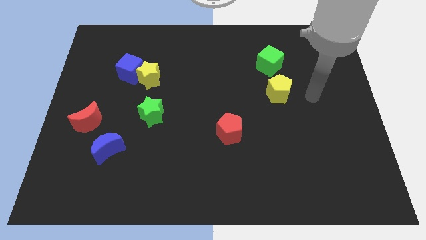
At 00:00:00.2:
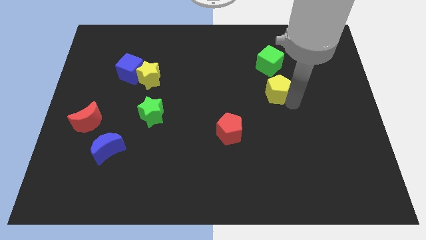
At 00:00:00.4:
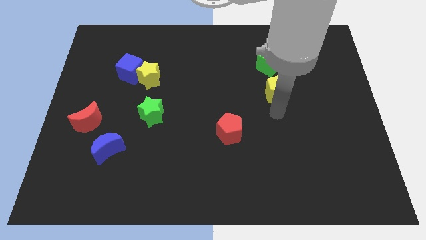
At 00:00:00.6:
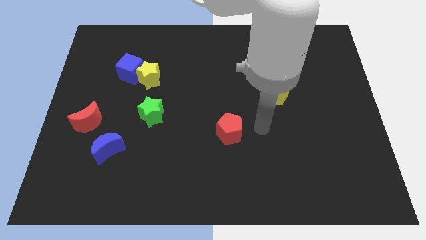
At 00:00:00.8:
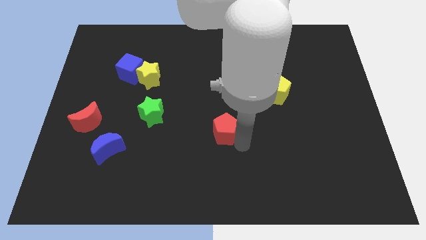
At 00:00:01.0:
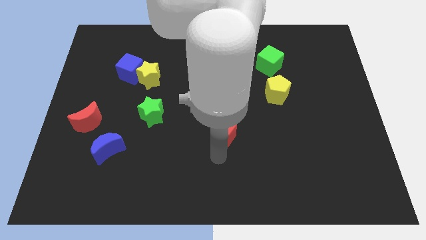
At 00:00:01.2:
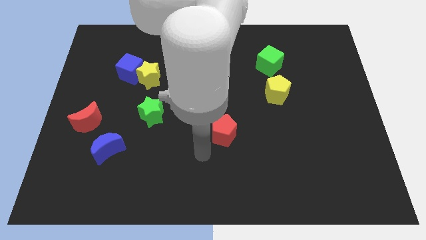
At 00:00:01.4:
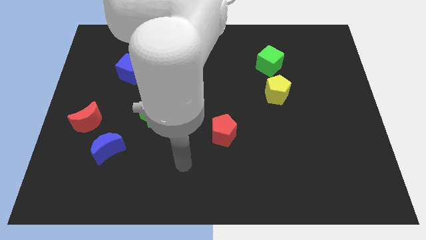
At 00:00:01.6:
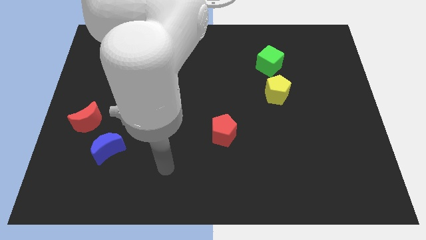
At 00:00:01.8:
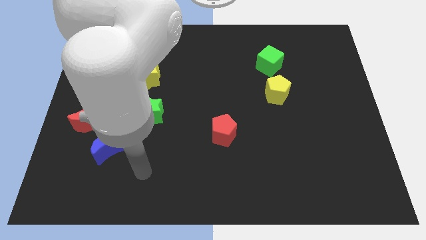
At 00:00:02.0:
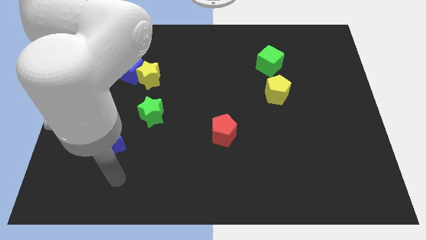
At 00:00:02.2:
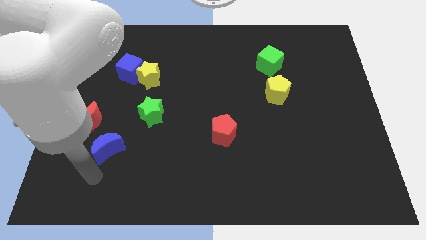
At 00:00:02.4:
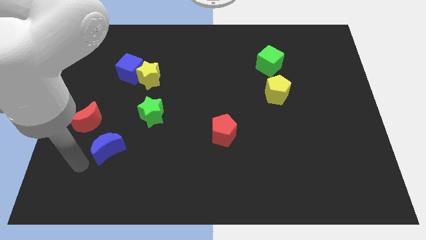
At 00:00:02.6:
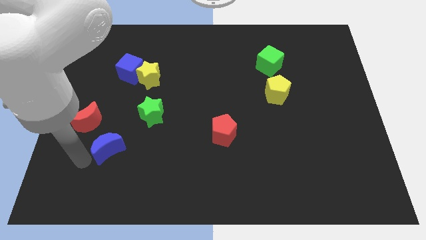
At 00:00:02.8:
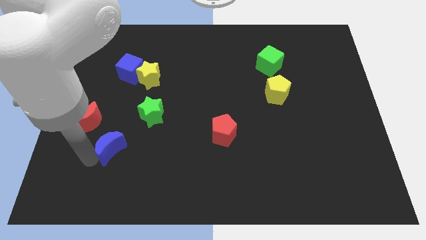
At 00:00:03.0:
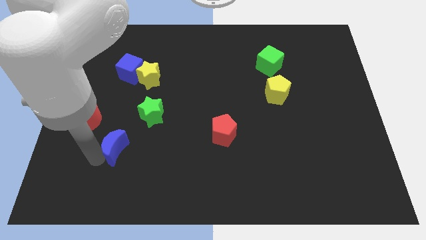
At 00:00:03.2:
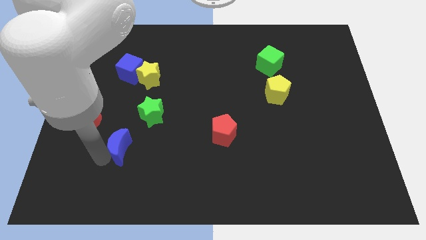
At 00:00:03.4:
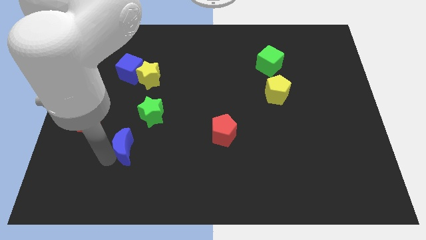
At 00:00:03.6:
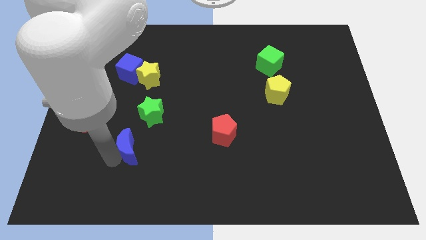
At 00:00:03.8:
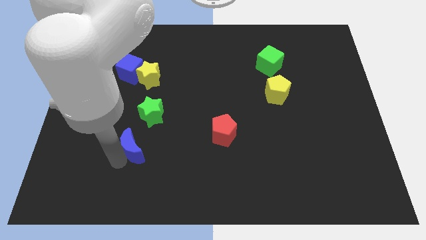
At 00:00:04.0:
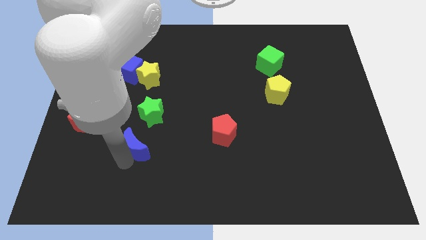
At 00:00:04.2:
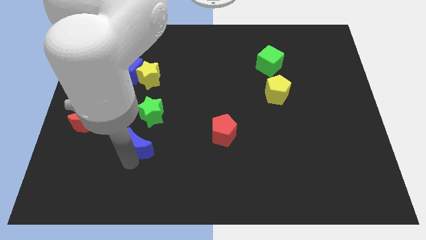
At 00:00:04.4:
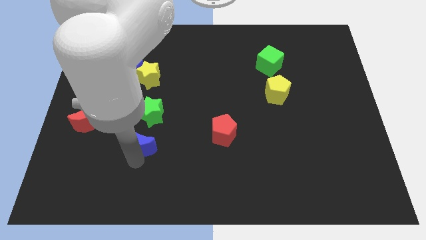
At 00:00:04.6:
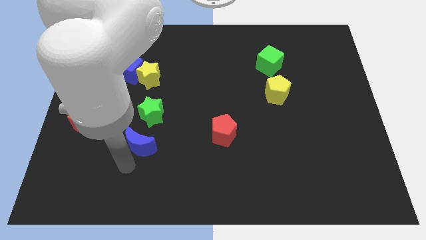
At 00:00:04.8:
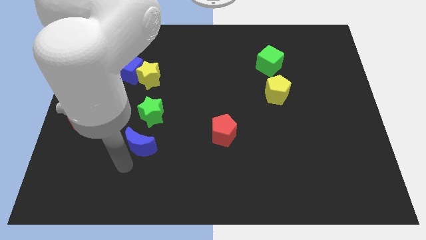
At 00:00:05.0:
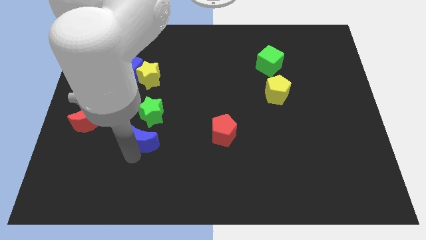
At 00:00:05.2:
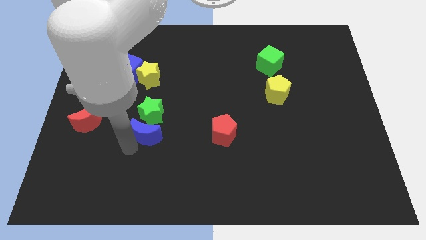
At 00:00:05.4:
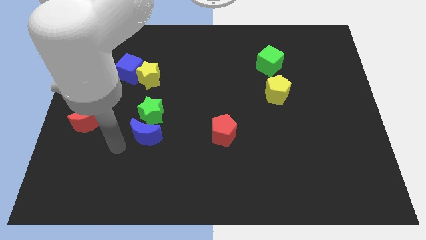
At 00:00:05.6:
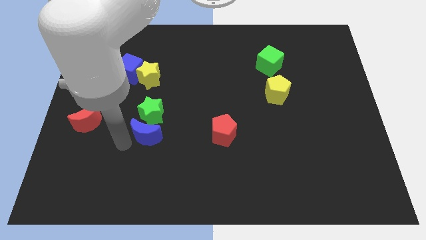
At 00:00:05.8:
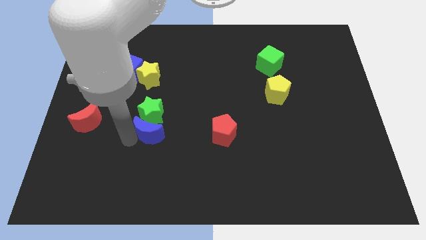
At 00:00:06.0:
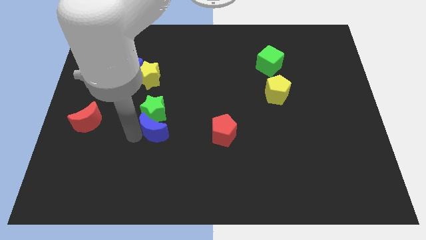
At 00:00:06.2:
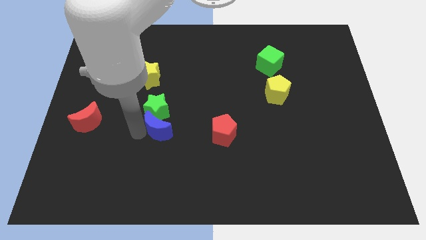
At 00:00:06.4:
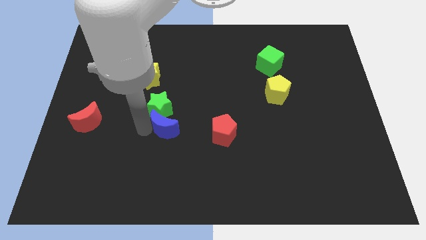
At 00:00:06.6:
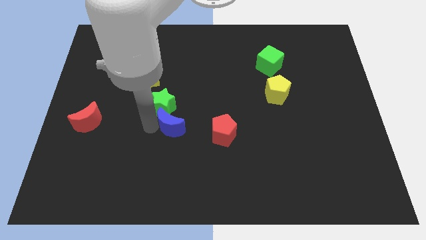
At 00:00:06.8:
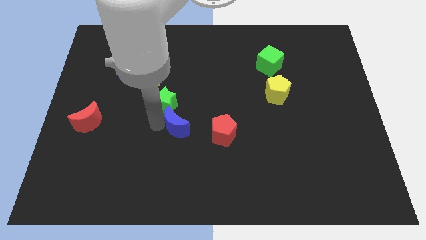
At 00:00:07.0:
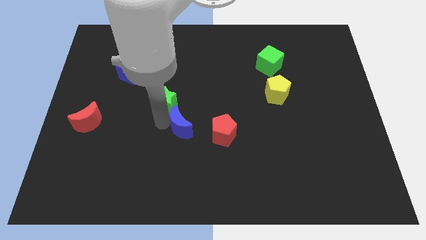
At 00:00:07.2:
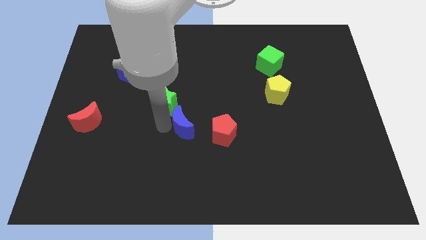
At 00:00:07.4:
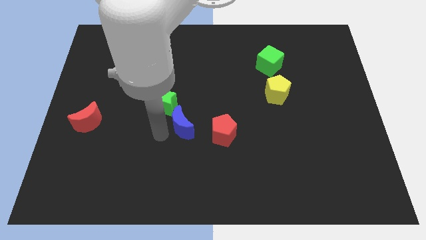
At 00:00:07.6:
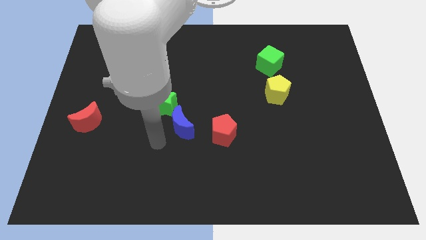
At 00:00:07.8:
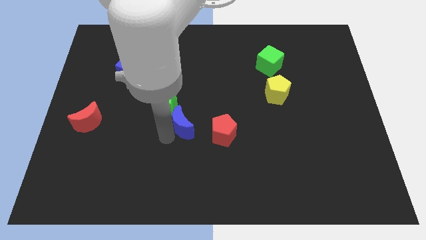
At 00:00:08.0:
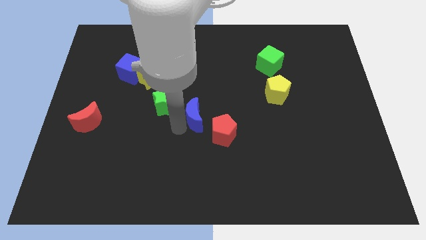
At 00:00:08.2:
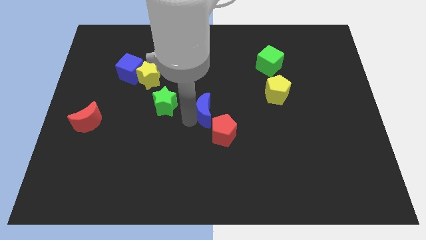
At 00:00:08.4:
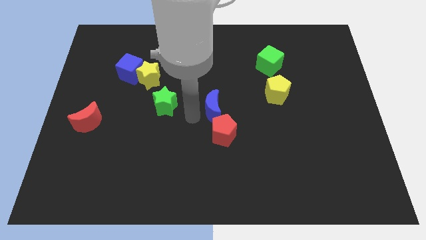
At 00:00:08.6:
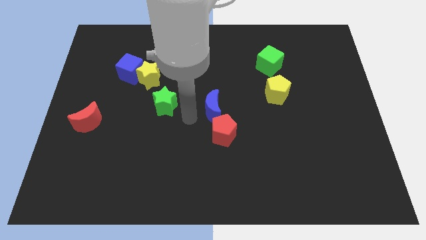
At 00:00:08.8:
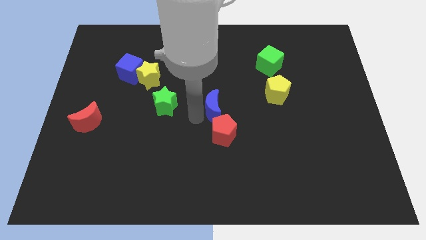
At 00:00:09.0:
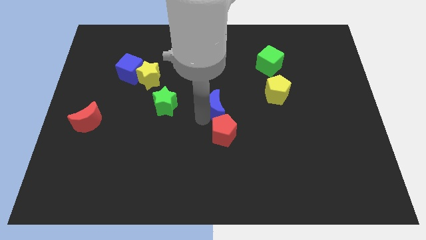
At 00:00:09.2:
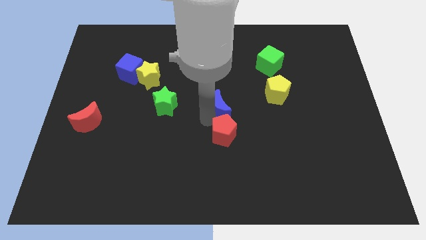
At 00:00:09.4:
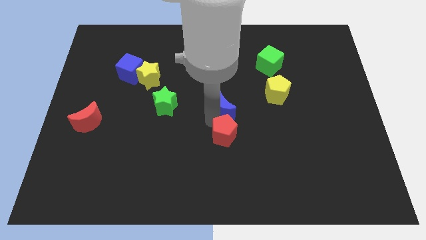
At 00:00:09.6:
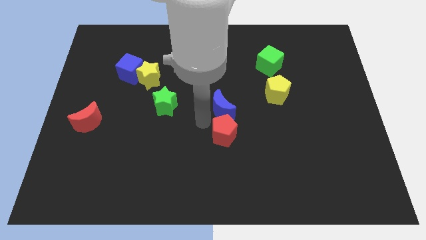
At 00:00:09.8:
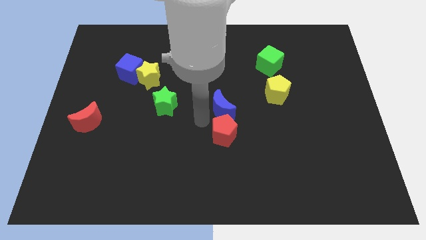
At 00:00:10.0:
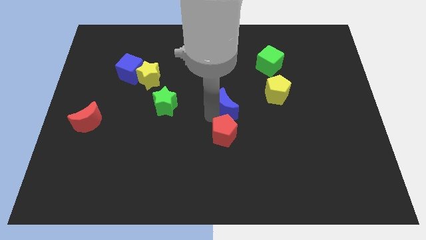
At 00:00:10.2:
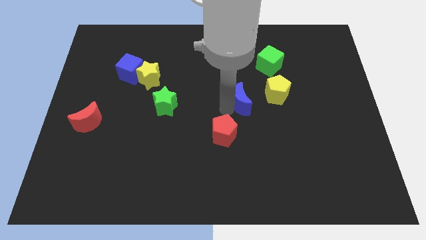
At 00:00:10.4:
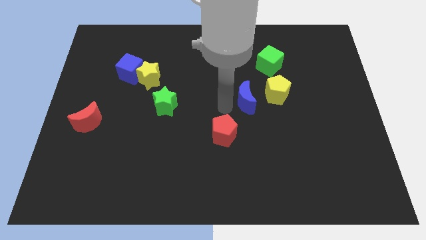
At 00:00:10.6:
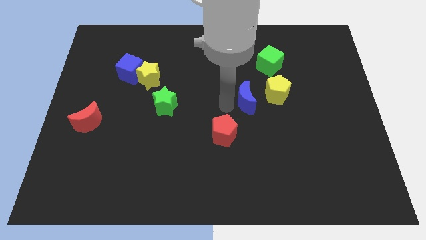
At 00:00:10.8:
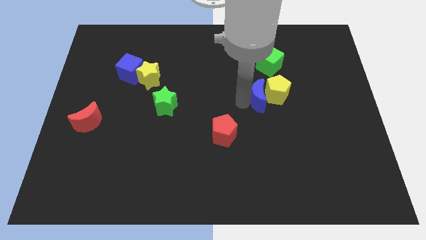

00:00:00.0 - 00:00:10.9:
put the blue moon close to the yellow pentagon

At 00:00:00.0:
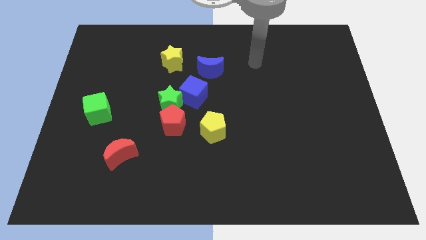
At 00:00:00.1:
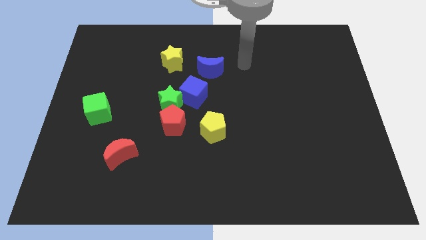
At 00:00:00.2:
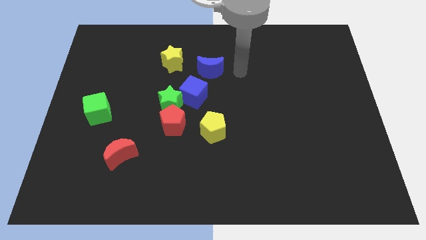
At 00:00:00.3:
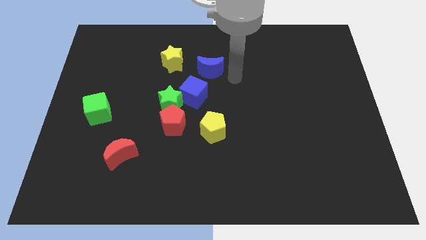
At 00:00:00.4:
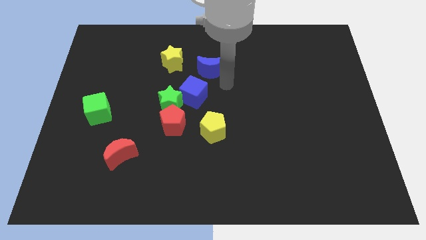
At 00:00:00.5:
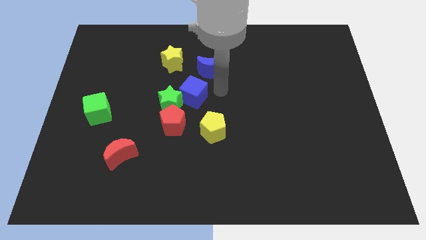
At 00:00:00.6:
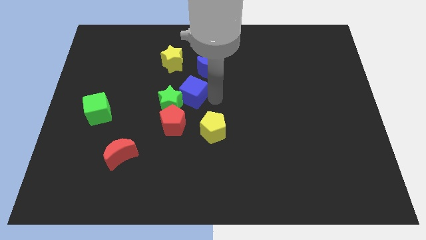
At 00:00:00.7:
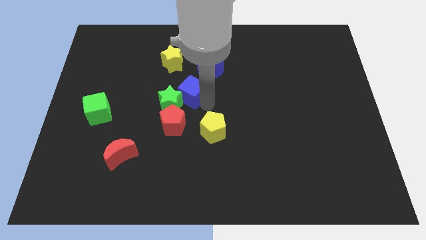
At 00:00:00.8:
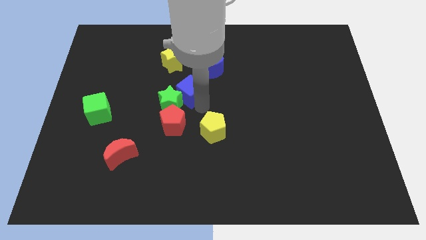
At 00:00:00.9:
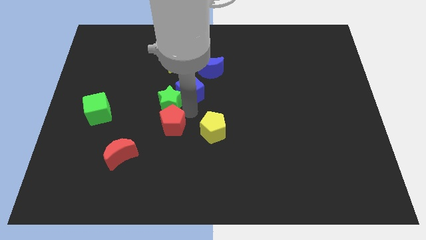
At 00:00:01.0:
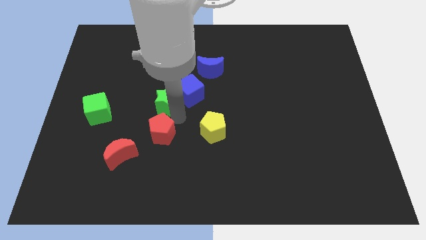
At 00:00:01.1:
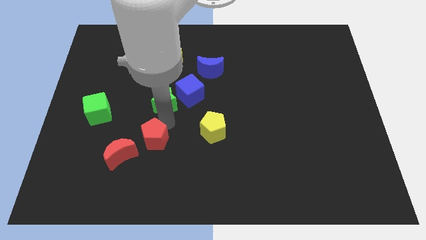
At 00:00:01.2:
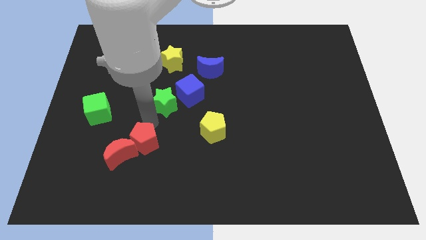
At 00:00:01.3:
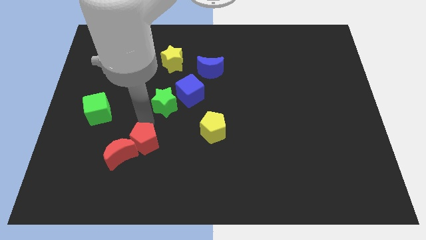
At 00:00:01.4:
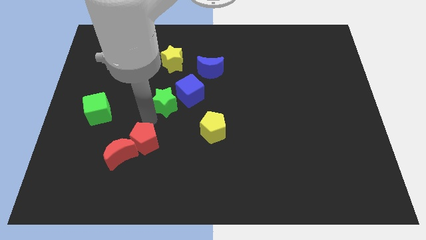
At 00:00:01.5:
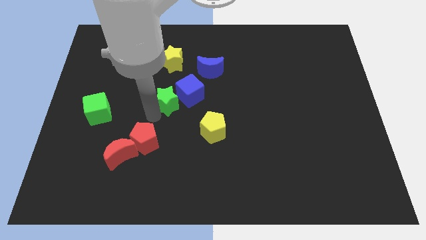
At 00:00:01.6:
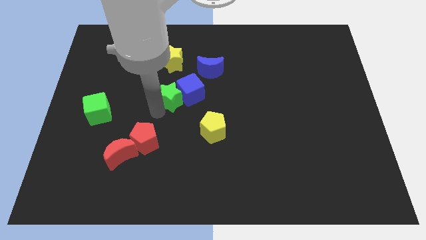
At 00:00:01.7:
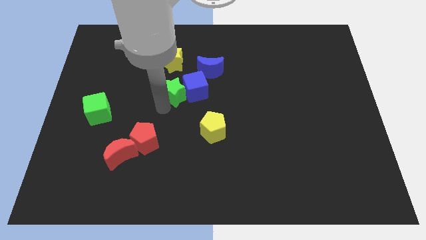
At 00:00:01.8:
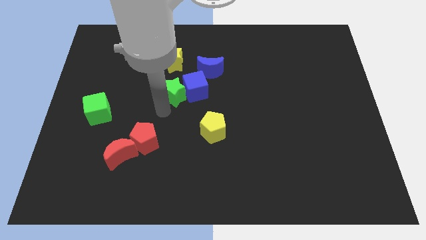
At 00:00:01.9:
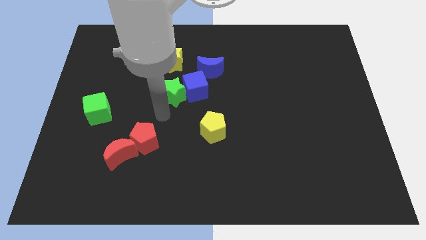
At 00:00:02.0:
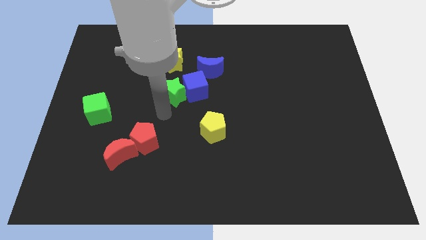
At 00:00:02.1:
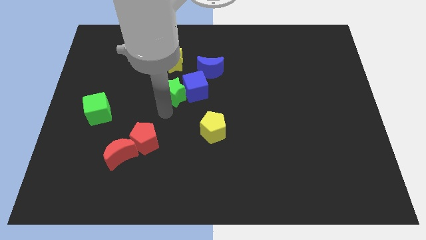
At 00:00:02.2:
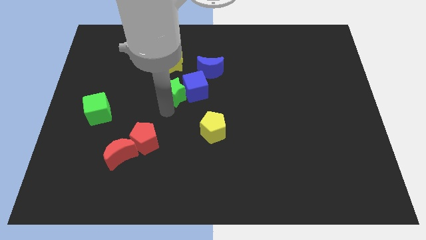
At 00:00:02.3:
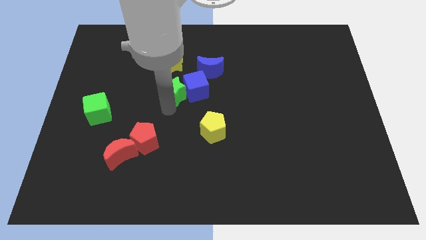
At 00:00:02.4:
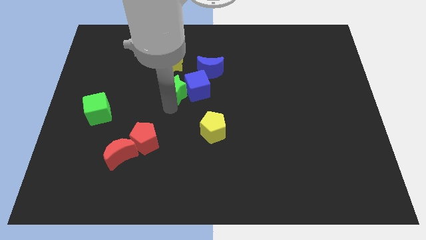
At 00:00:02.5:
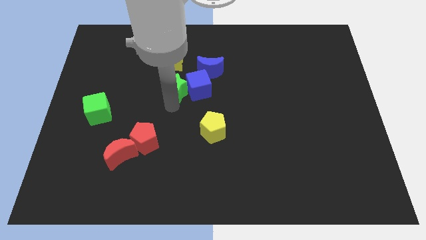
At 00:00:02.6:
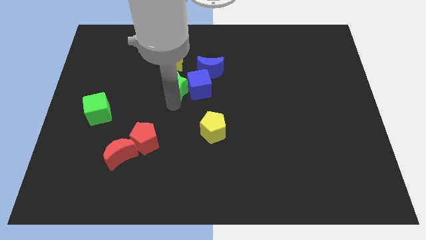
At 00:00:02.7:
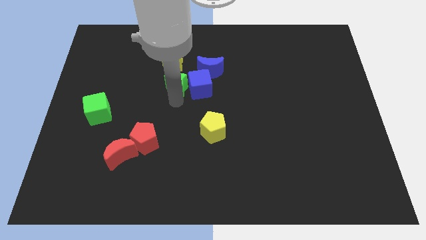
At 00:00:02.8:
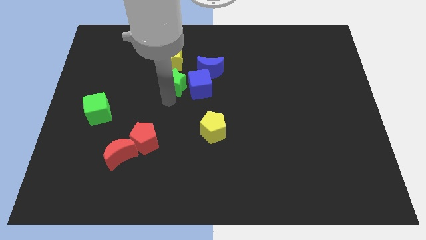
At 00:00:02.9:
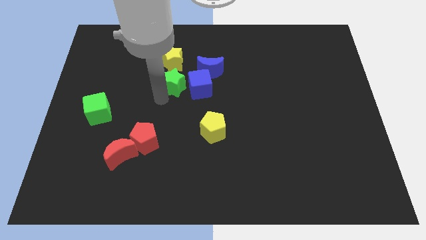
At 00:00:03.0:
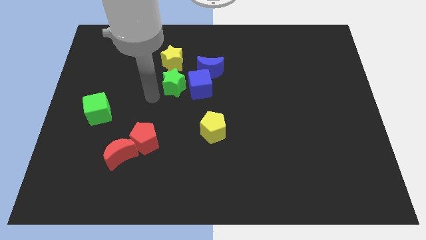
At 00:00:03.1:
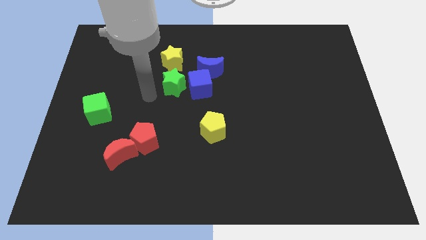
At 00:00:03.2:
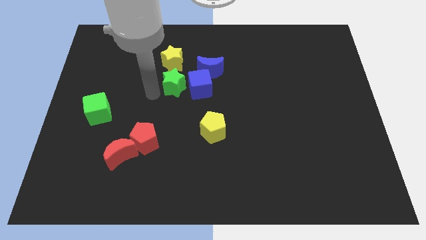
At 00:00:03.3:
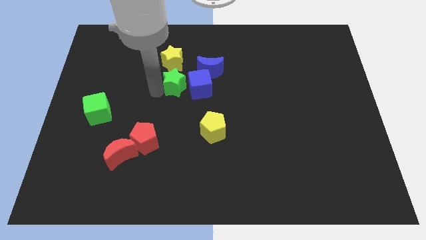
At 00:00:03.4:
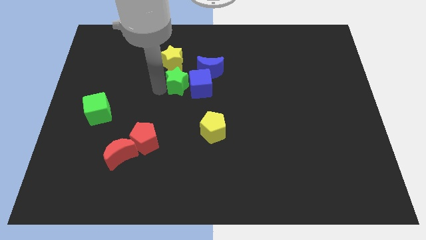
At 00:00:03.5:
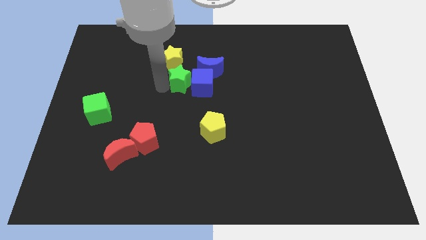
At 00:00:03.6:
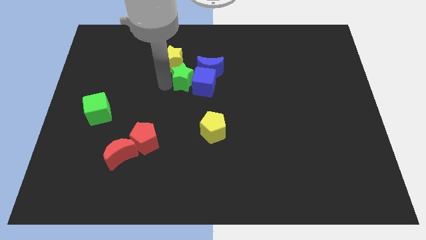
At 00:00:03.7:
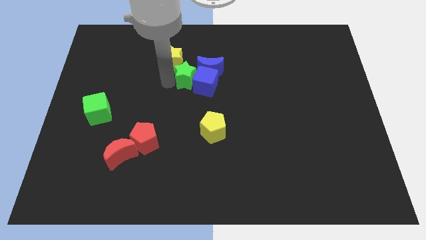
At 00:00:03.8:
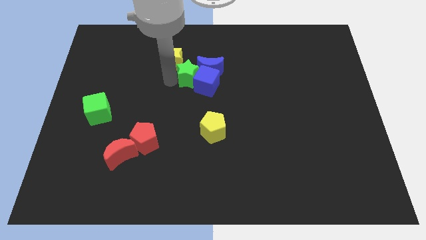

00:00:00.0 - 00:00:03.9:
push the green star close to the blue moon
